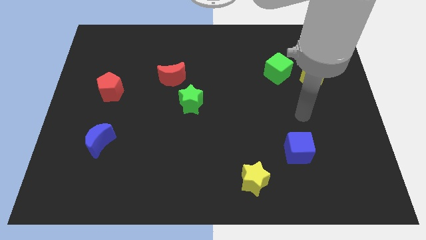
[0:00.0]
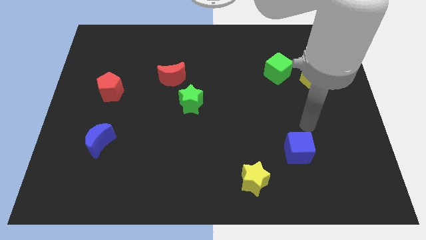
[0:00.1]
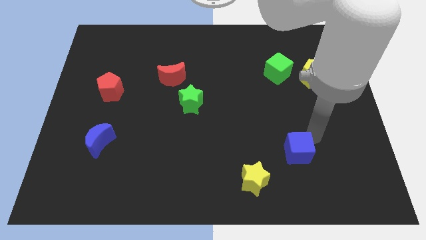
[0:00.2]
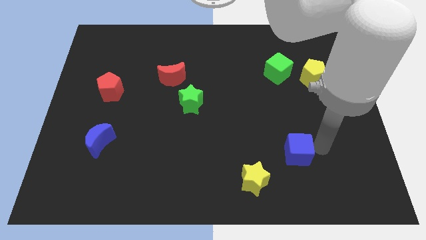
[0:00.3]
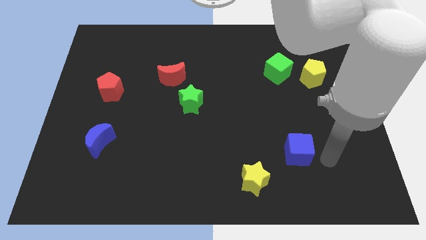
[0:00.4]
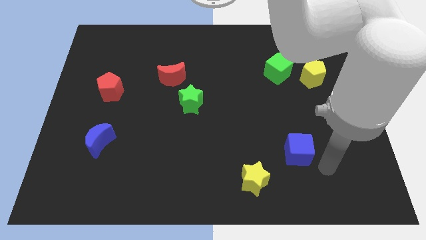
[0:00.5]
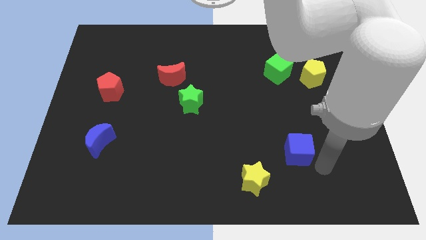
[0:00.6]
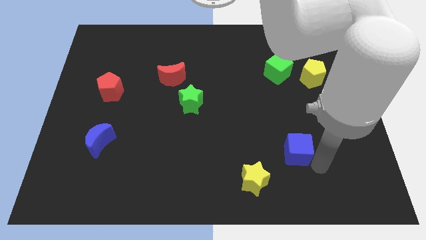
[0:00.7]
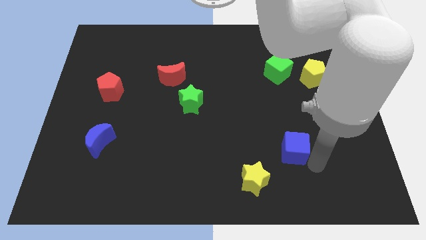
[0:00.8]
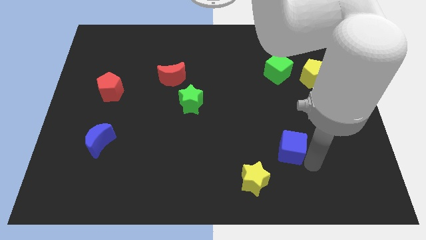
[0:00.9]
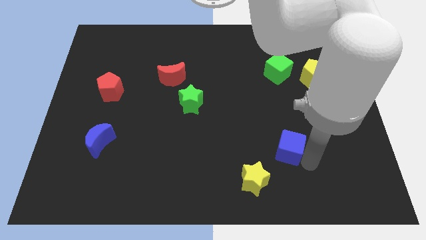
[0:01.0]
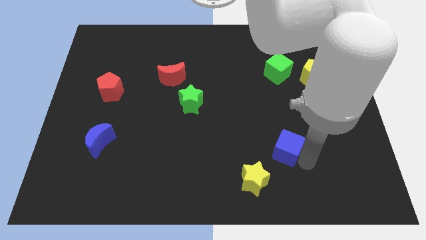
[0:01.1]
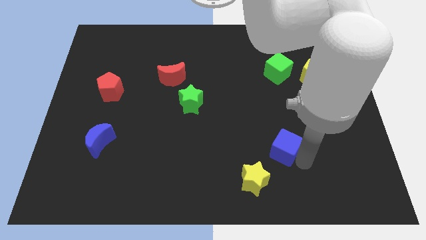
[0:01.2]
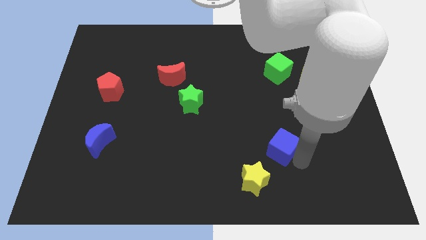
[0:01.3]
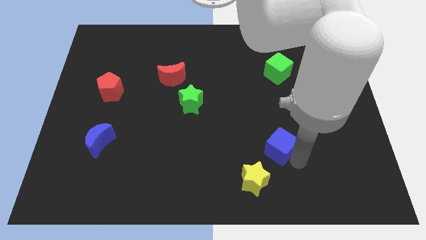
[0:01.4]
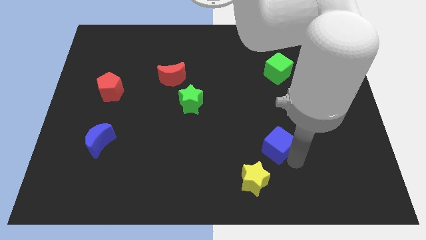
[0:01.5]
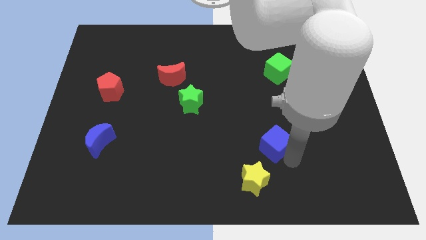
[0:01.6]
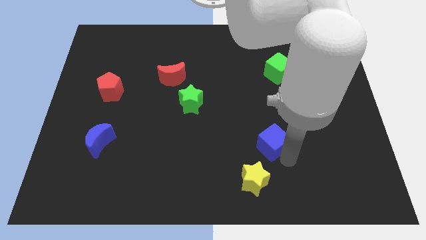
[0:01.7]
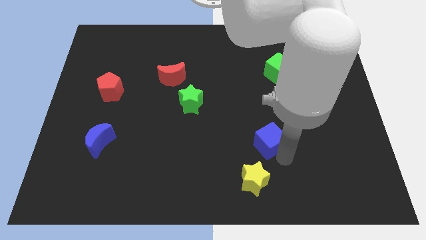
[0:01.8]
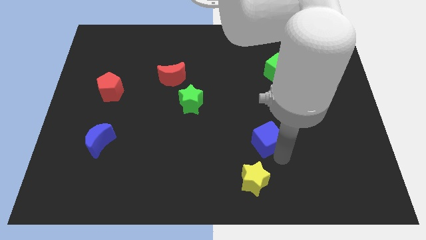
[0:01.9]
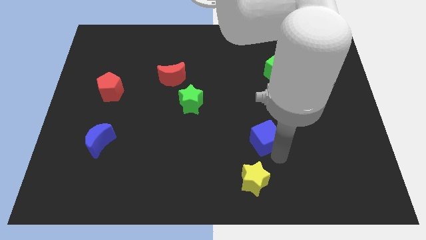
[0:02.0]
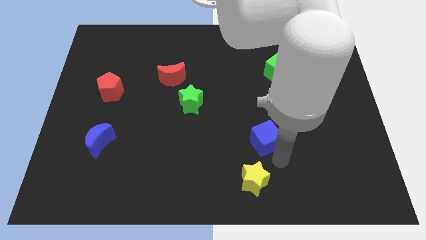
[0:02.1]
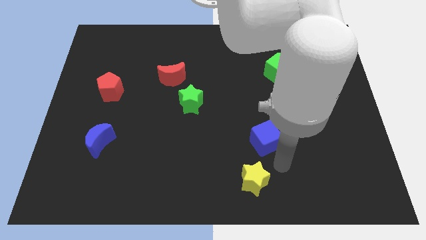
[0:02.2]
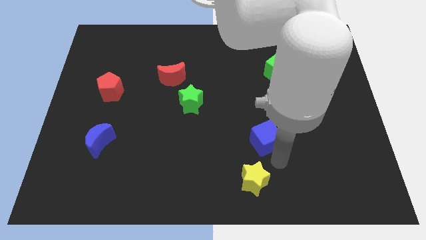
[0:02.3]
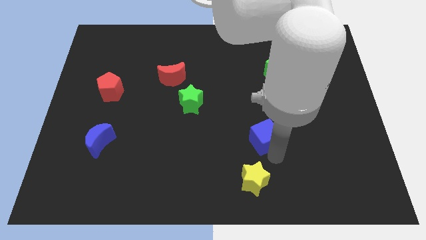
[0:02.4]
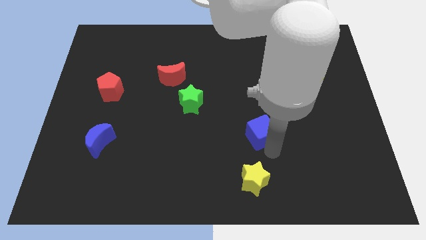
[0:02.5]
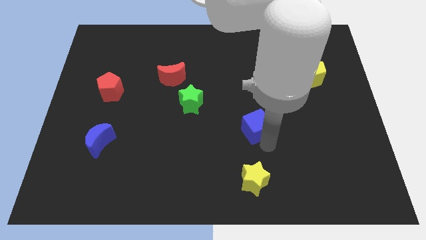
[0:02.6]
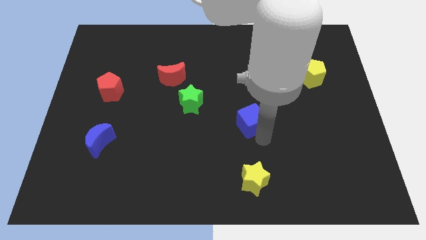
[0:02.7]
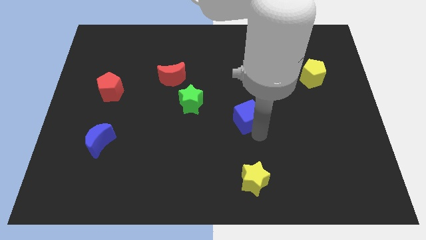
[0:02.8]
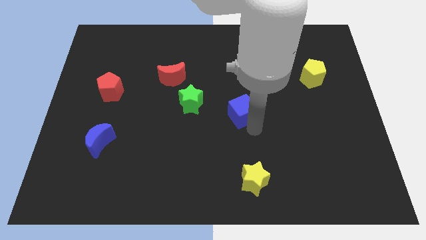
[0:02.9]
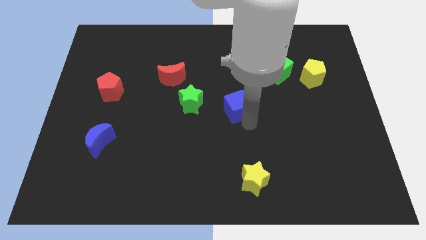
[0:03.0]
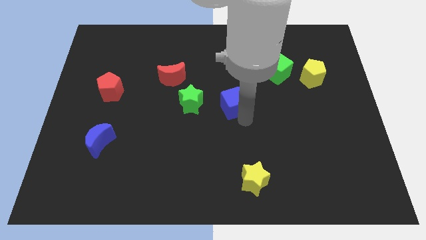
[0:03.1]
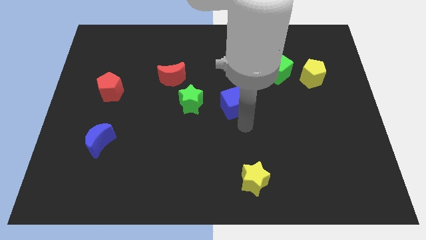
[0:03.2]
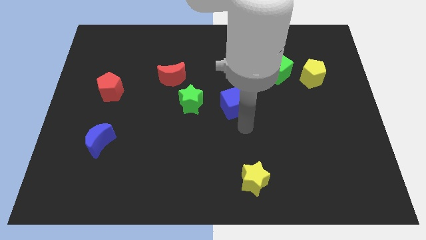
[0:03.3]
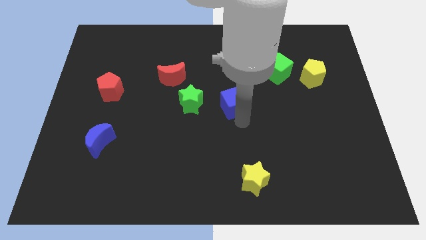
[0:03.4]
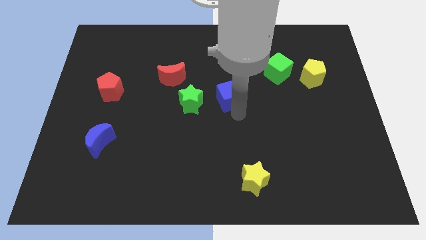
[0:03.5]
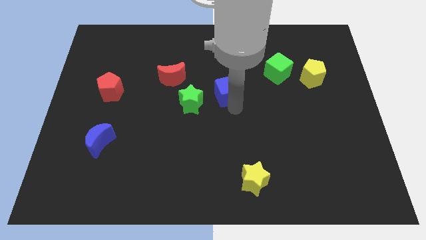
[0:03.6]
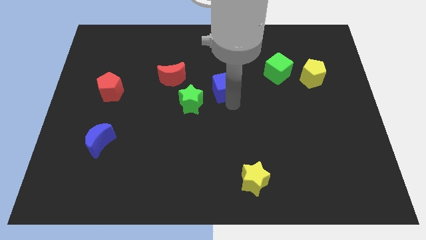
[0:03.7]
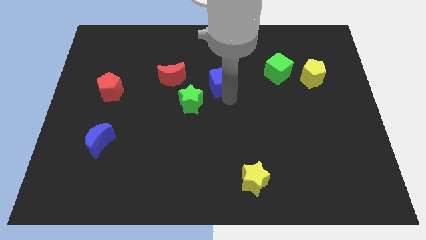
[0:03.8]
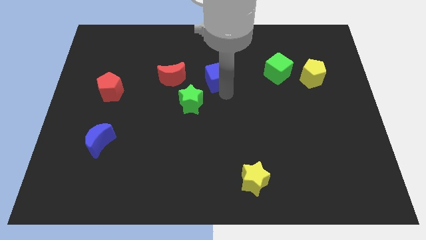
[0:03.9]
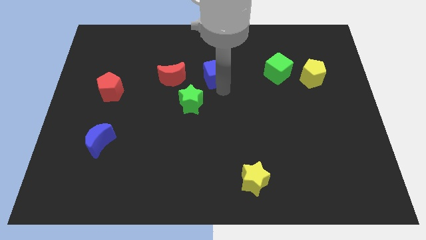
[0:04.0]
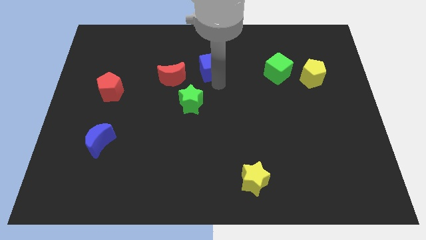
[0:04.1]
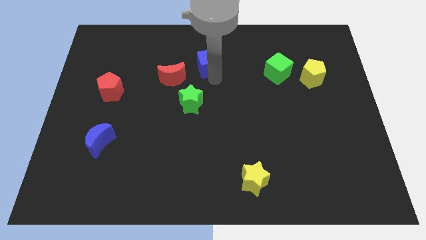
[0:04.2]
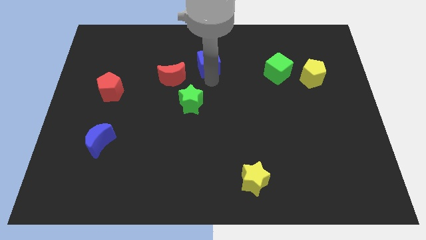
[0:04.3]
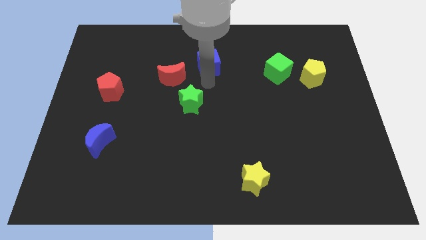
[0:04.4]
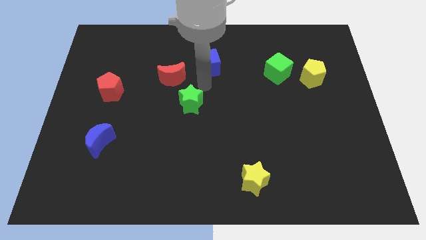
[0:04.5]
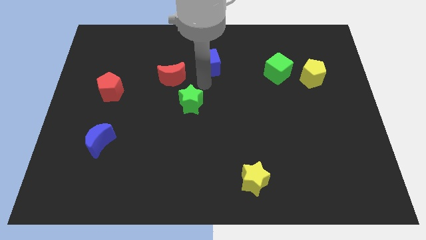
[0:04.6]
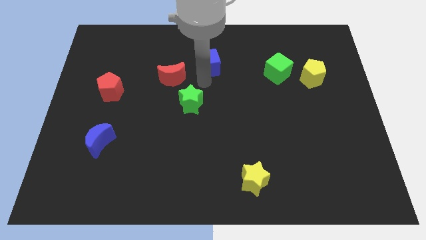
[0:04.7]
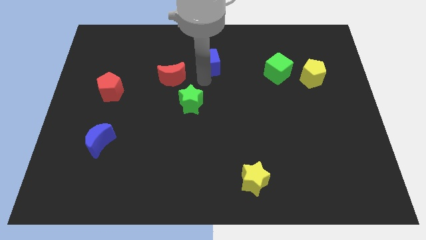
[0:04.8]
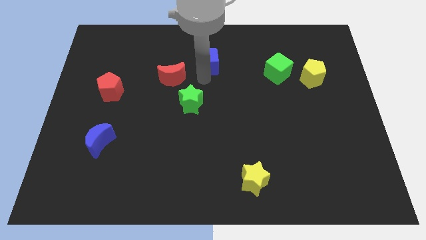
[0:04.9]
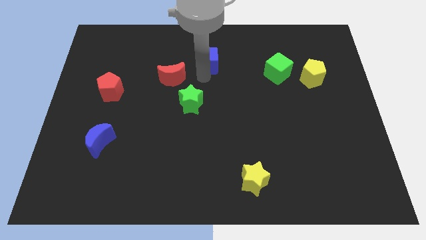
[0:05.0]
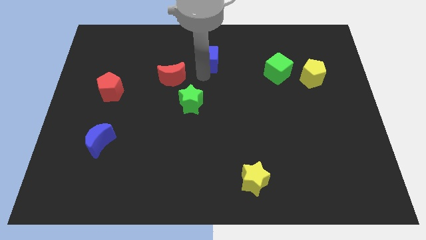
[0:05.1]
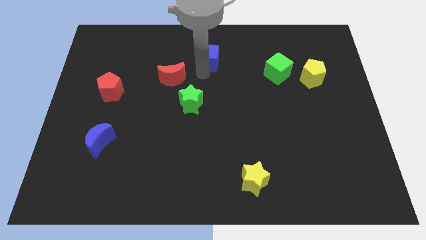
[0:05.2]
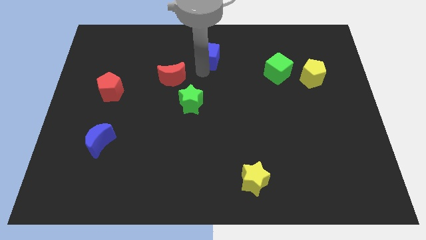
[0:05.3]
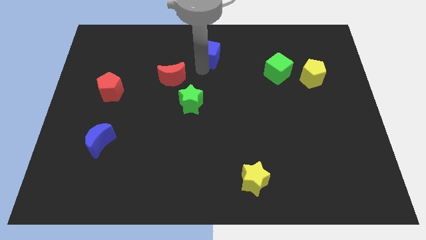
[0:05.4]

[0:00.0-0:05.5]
push the blue cube to the top side

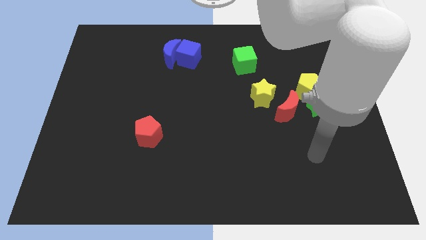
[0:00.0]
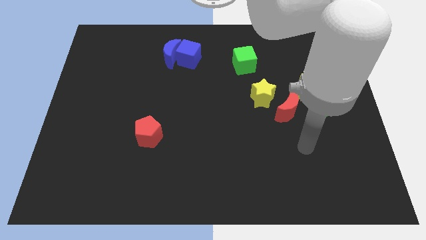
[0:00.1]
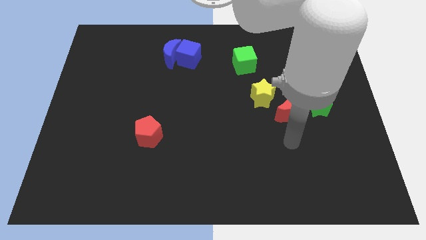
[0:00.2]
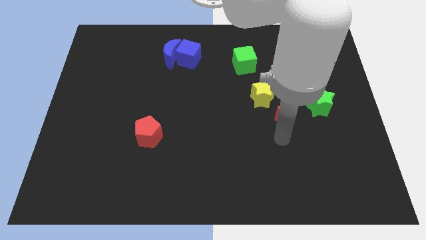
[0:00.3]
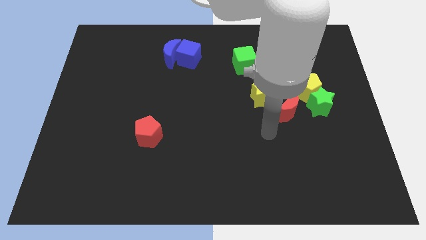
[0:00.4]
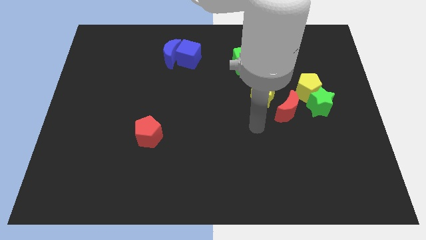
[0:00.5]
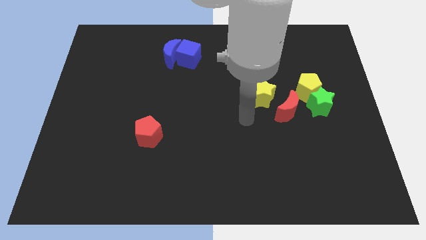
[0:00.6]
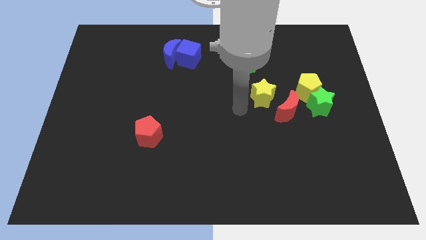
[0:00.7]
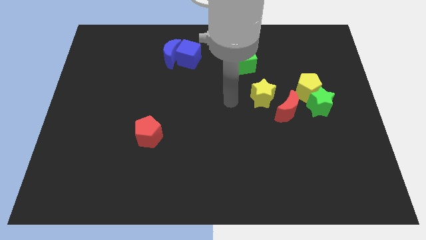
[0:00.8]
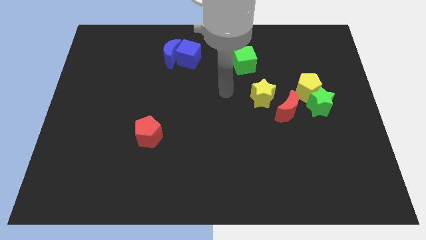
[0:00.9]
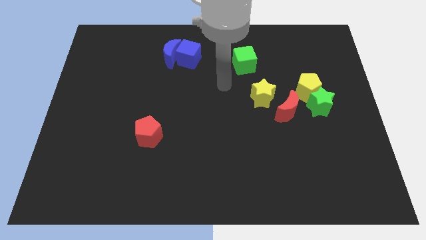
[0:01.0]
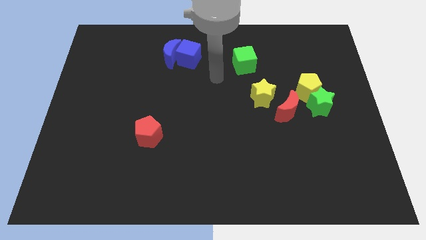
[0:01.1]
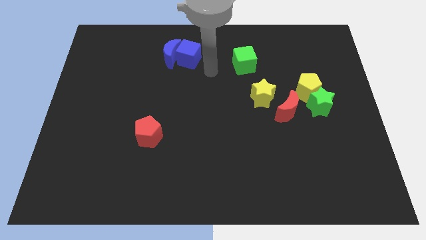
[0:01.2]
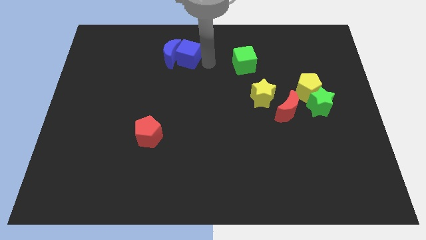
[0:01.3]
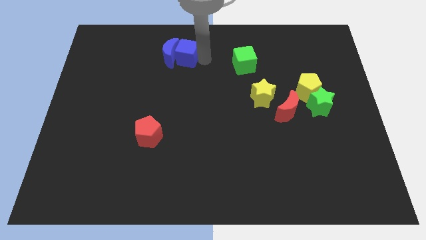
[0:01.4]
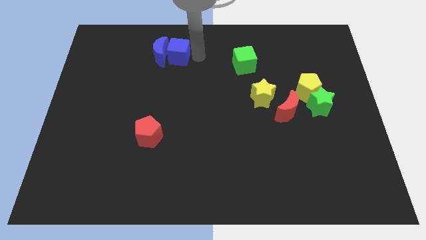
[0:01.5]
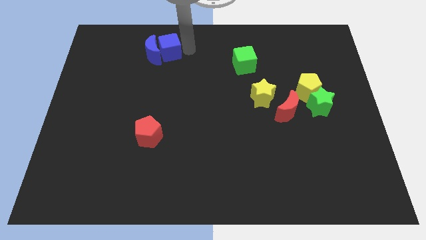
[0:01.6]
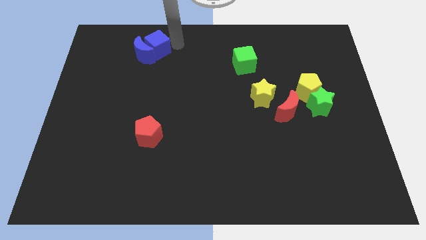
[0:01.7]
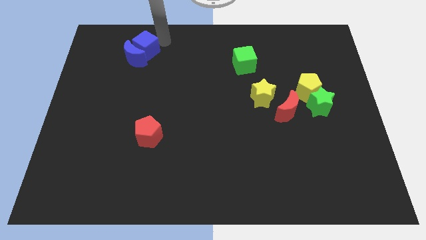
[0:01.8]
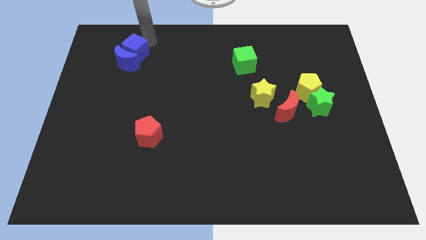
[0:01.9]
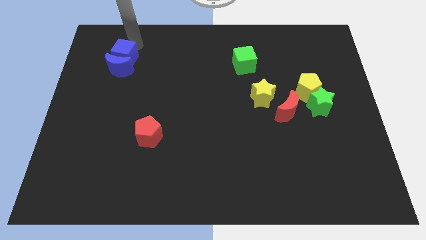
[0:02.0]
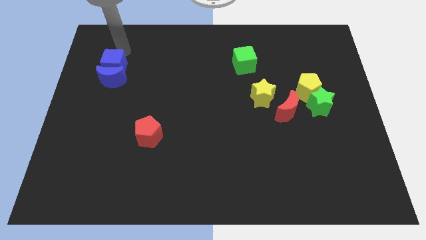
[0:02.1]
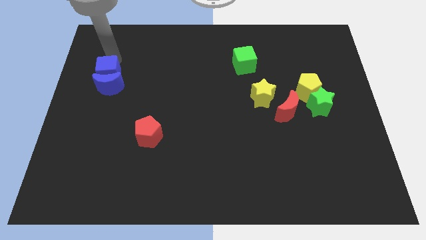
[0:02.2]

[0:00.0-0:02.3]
push the blue moon to the center left
